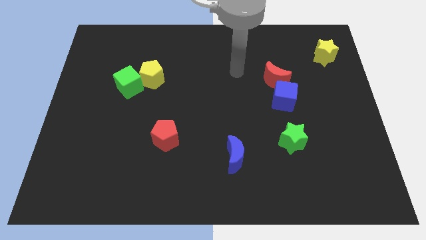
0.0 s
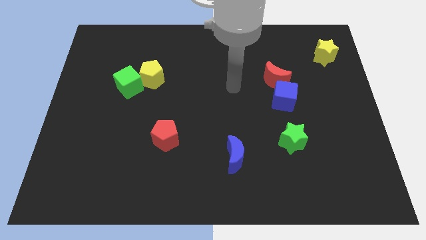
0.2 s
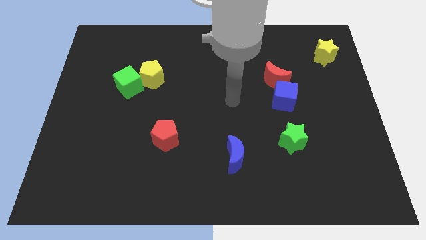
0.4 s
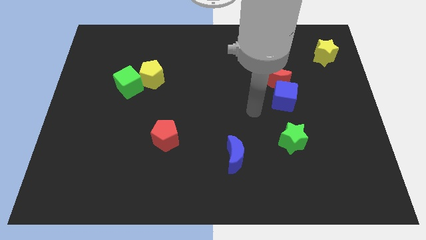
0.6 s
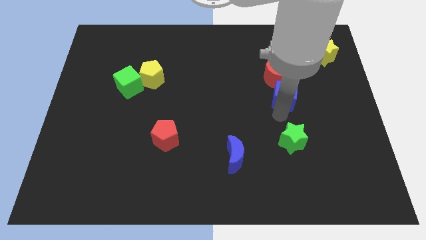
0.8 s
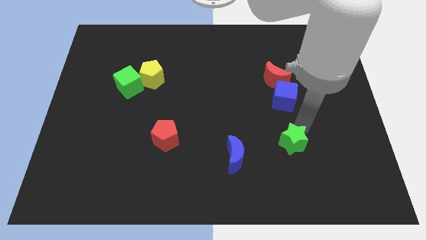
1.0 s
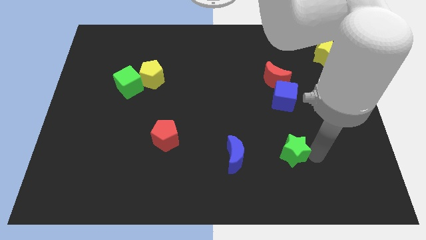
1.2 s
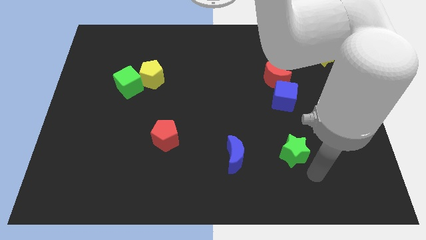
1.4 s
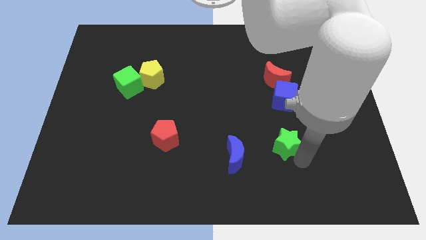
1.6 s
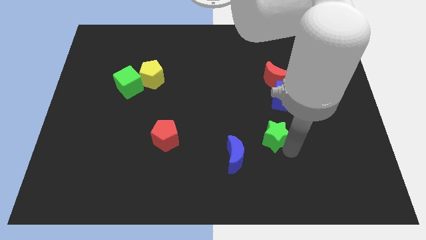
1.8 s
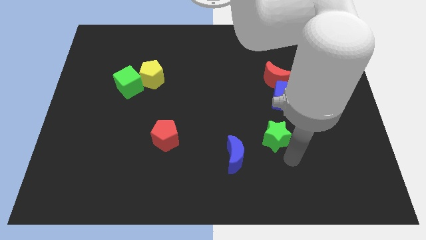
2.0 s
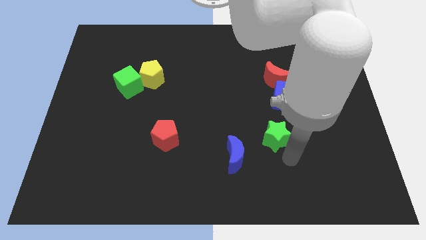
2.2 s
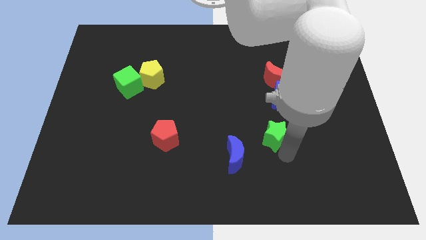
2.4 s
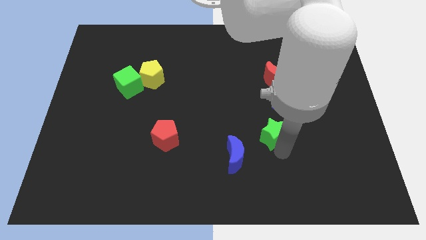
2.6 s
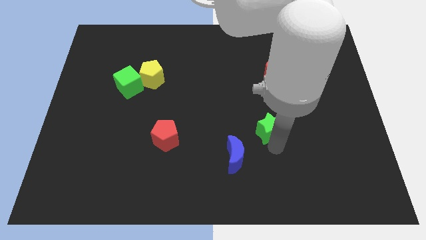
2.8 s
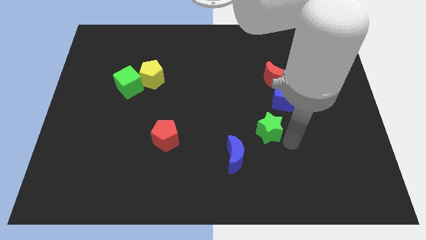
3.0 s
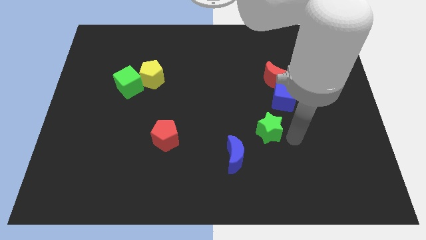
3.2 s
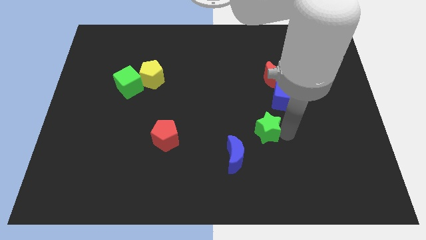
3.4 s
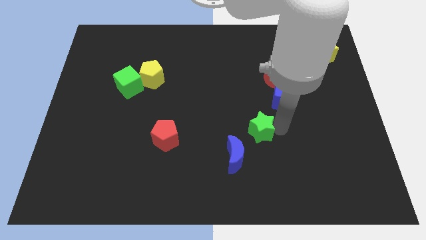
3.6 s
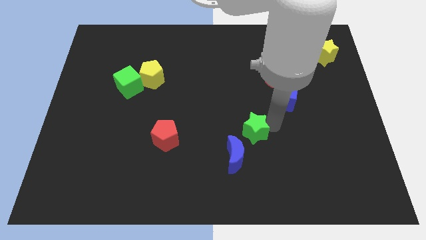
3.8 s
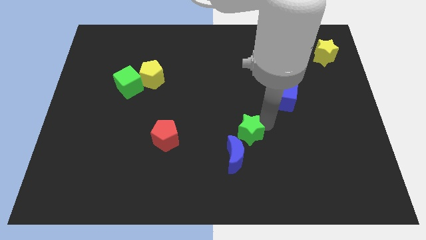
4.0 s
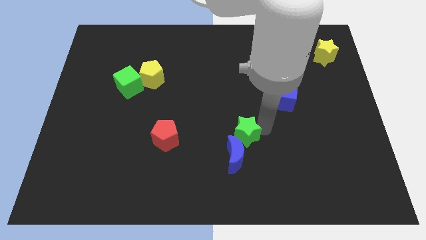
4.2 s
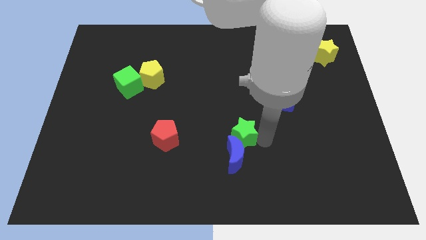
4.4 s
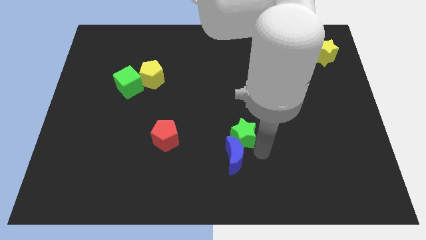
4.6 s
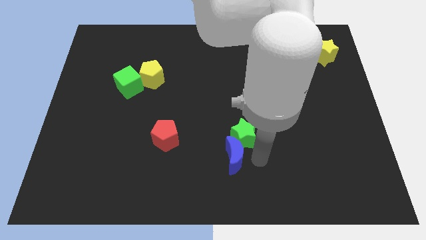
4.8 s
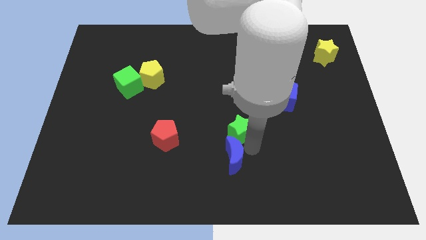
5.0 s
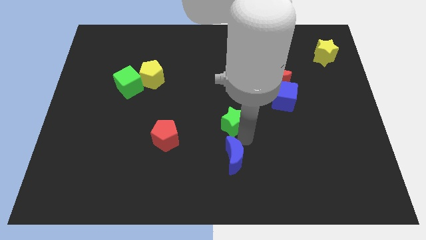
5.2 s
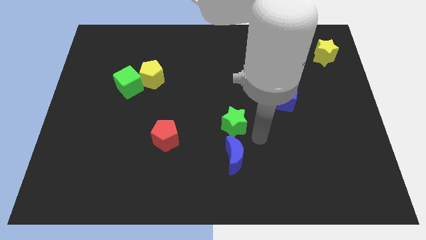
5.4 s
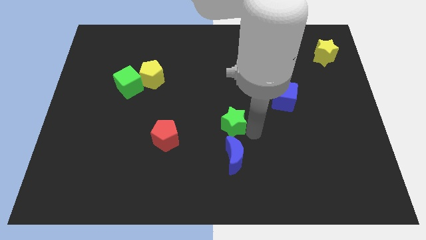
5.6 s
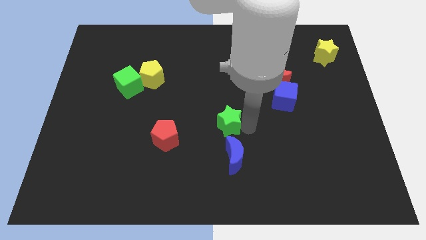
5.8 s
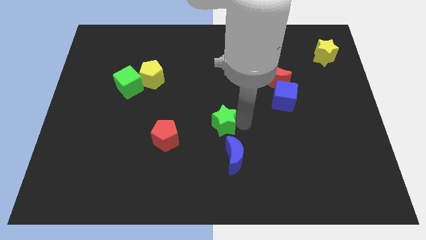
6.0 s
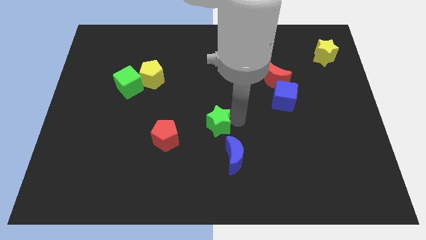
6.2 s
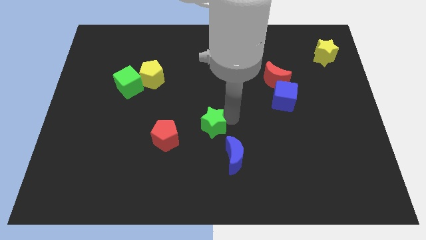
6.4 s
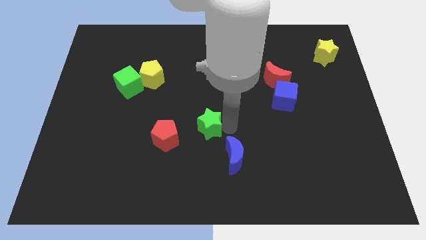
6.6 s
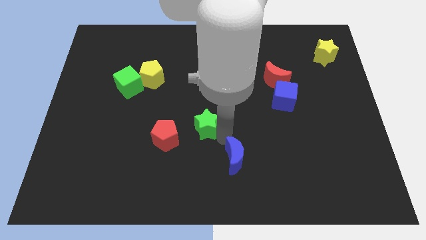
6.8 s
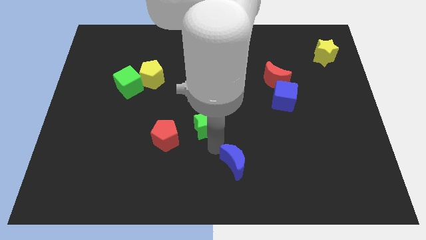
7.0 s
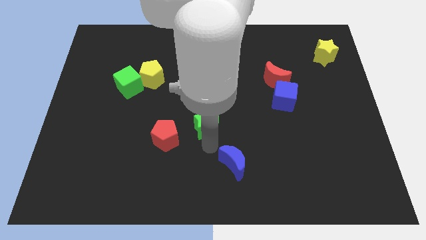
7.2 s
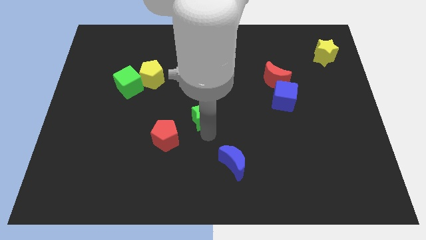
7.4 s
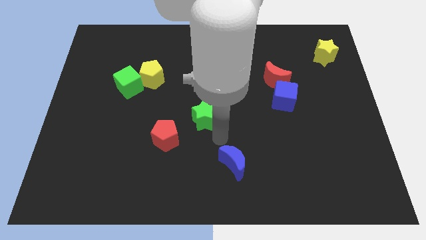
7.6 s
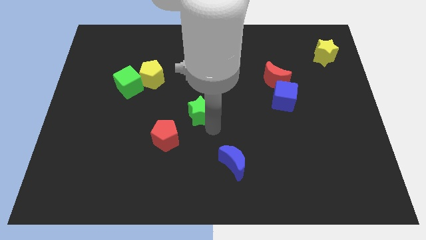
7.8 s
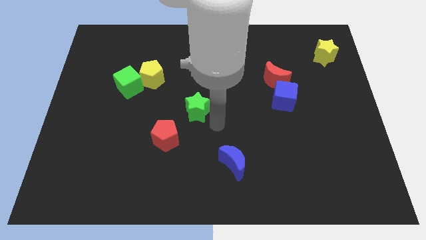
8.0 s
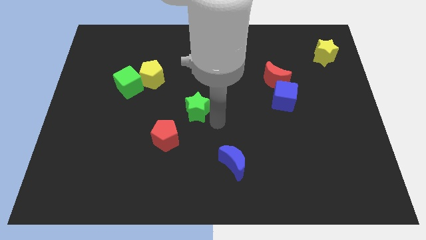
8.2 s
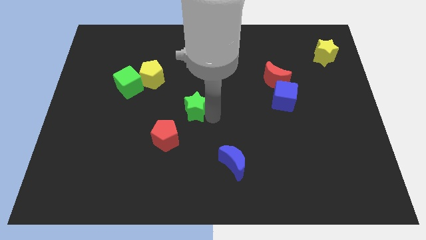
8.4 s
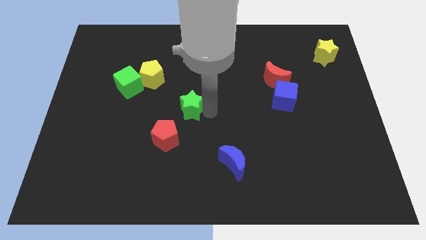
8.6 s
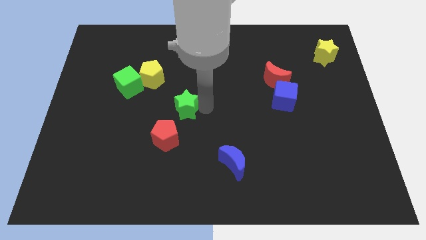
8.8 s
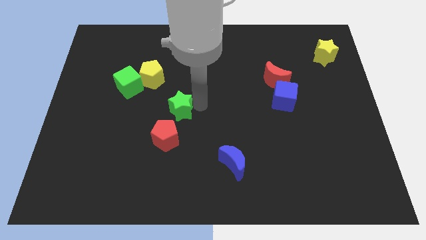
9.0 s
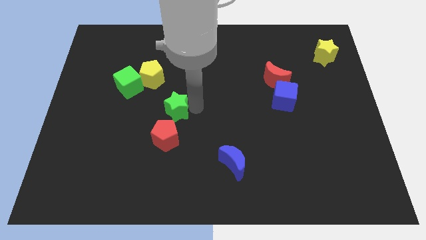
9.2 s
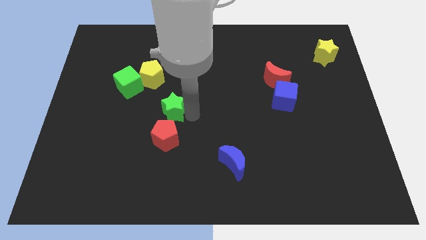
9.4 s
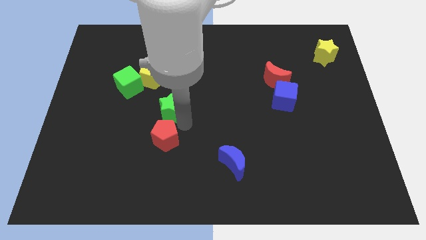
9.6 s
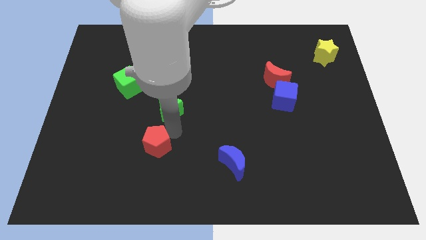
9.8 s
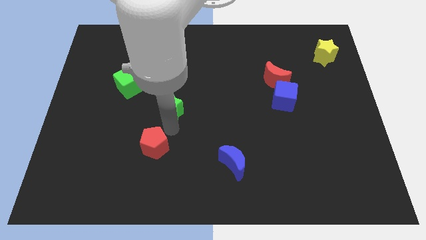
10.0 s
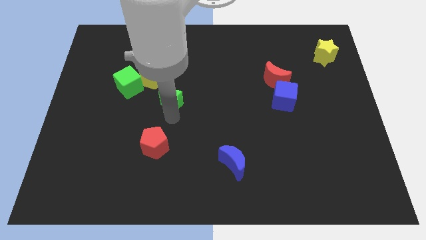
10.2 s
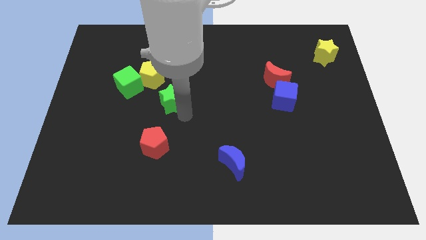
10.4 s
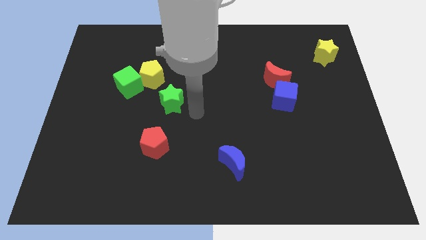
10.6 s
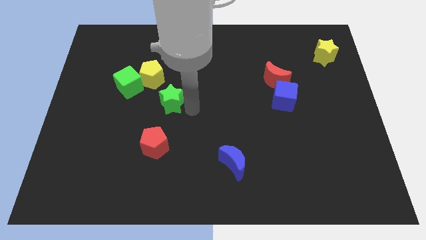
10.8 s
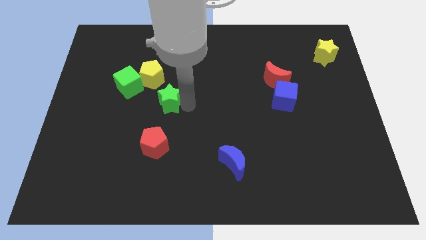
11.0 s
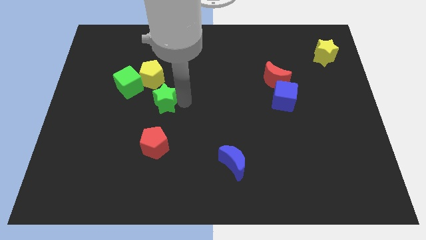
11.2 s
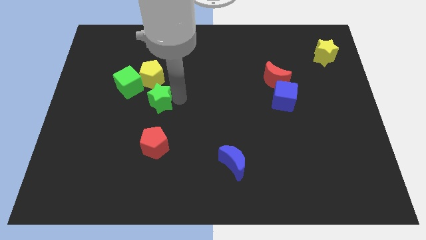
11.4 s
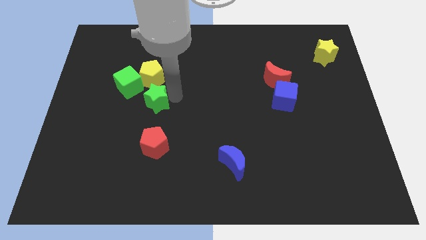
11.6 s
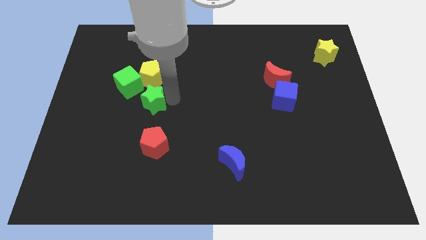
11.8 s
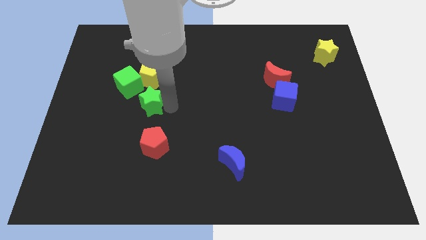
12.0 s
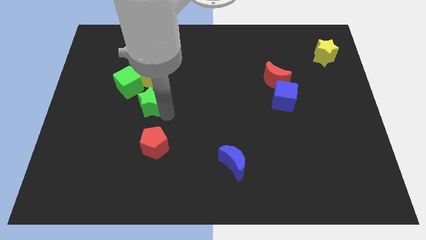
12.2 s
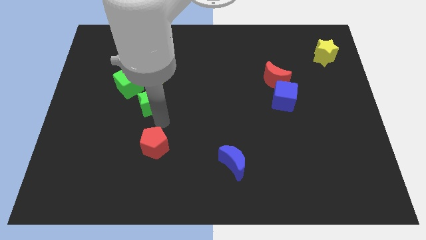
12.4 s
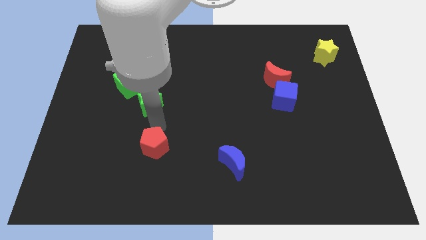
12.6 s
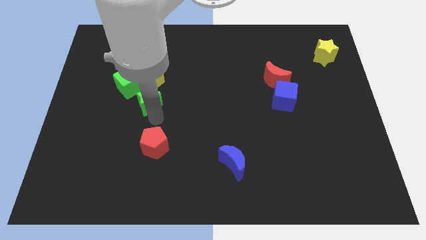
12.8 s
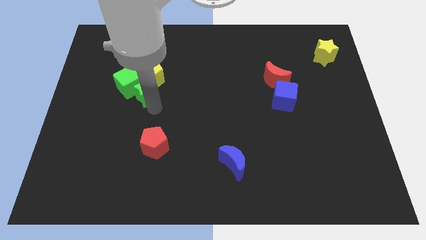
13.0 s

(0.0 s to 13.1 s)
move the green star next to the green cube

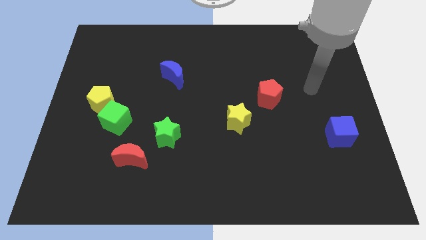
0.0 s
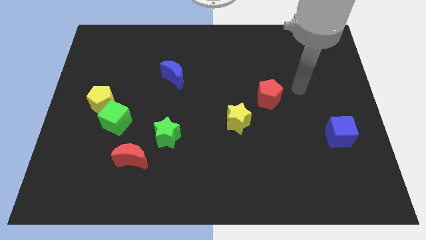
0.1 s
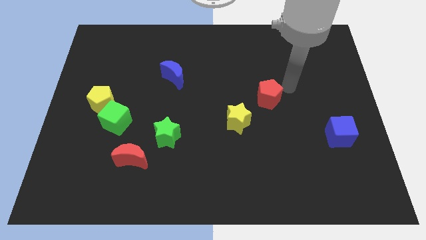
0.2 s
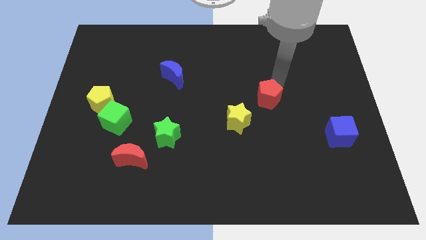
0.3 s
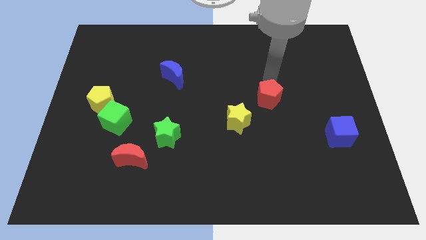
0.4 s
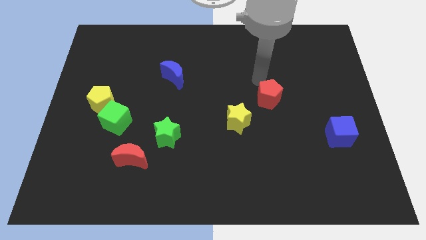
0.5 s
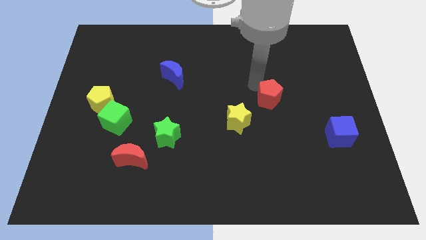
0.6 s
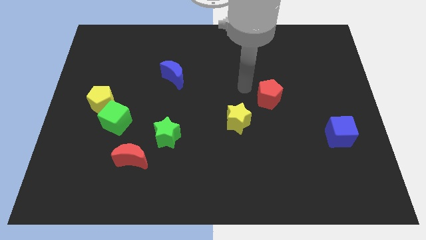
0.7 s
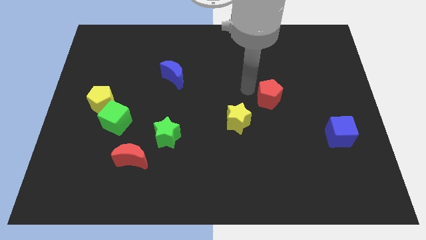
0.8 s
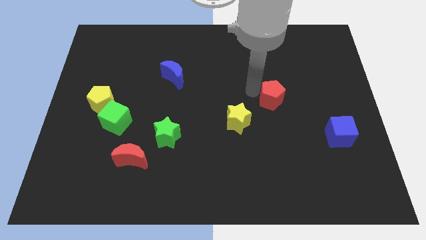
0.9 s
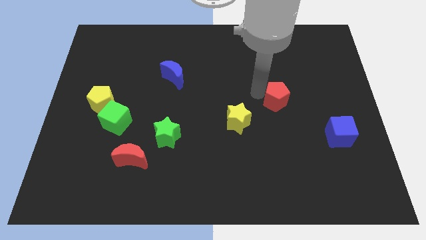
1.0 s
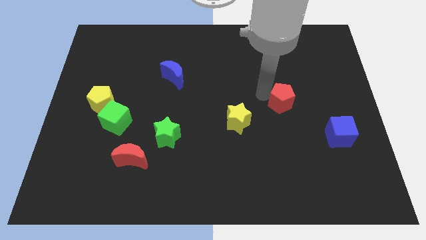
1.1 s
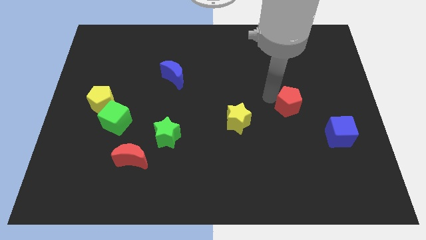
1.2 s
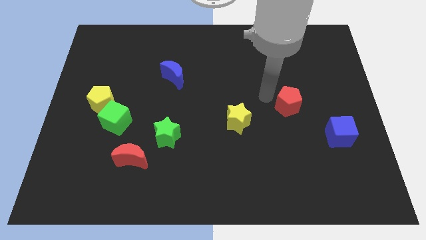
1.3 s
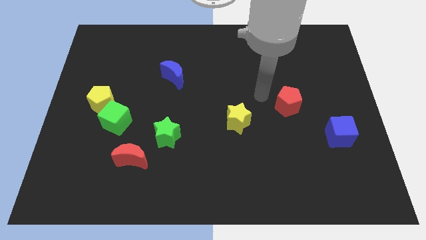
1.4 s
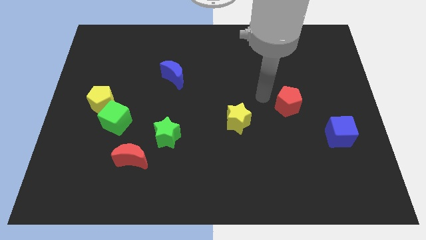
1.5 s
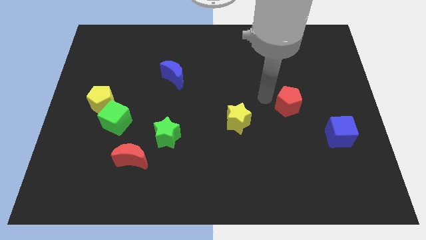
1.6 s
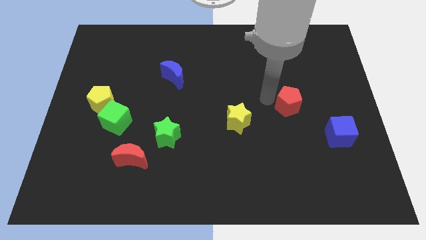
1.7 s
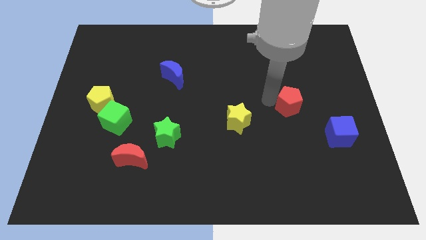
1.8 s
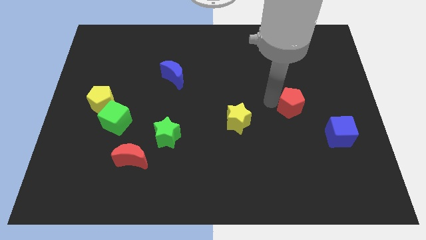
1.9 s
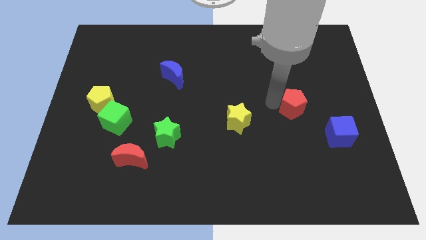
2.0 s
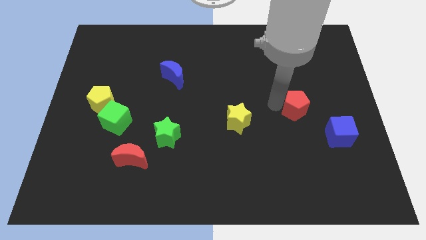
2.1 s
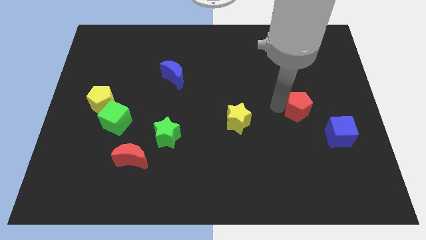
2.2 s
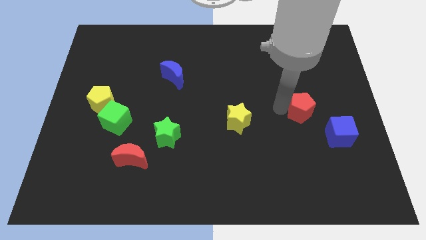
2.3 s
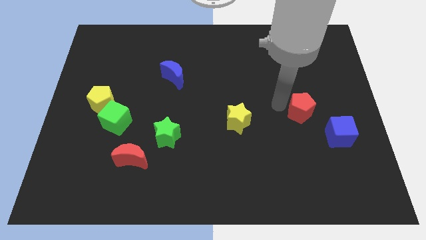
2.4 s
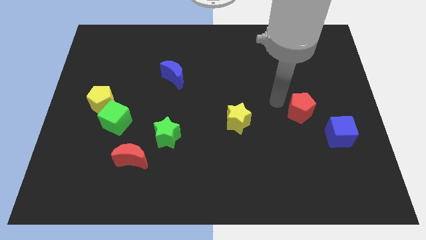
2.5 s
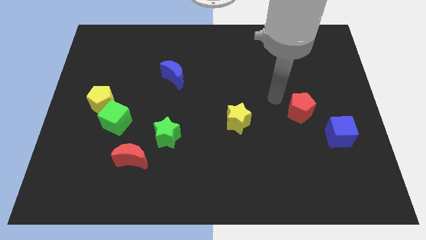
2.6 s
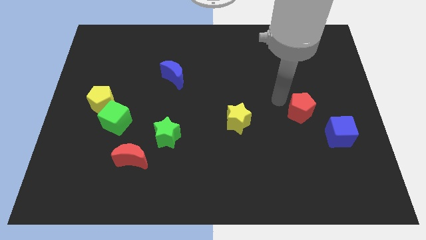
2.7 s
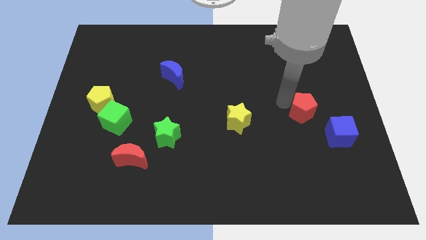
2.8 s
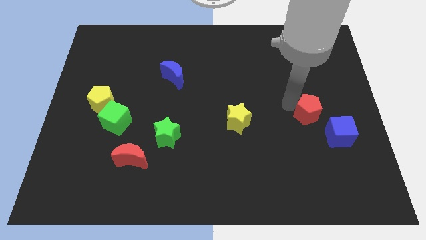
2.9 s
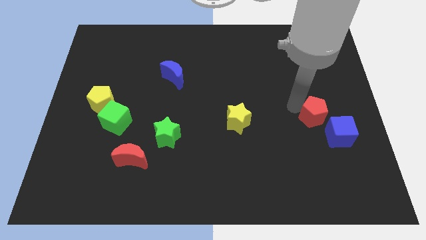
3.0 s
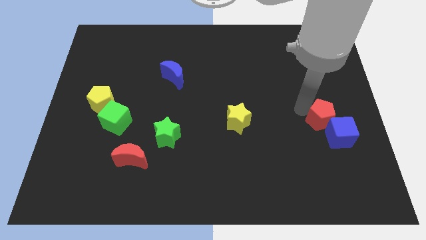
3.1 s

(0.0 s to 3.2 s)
slide the red pentagon next to the blue cube
